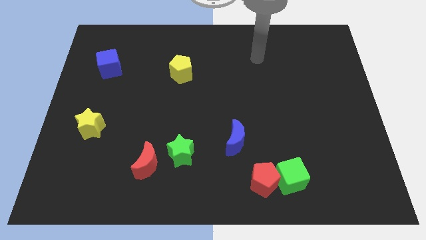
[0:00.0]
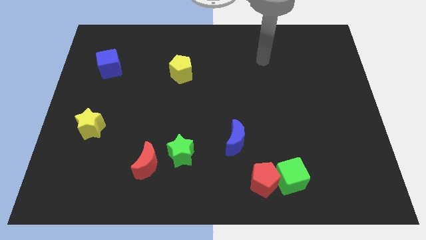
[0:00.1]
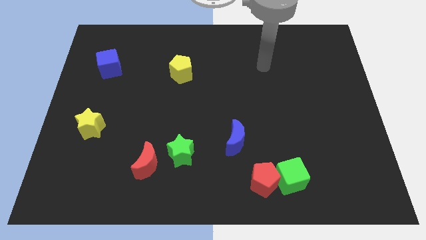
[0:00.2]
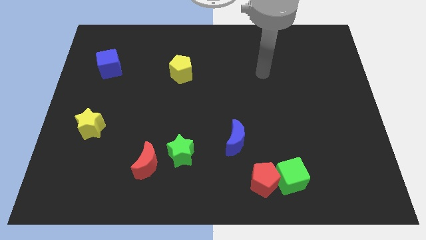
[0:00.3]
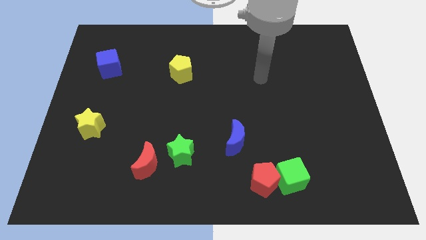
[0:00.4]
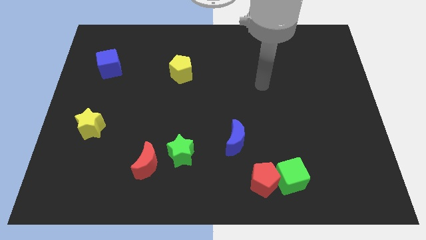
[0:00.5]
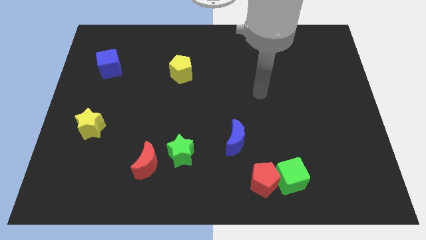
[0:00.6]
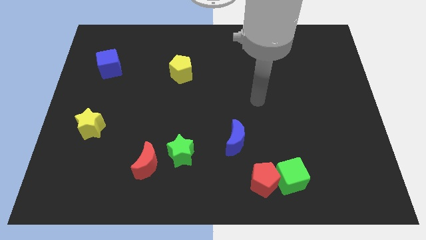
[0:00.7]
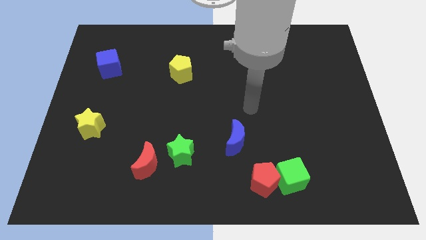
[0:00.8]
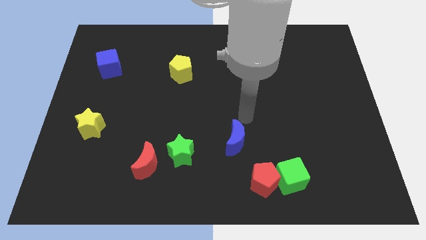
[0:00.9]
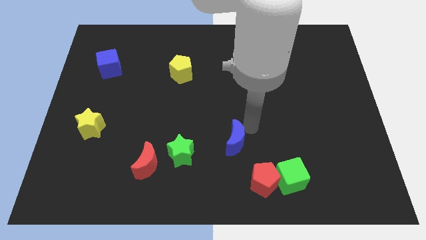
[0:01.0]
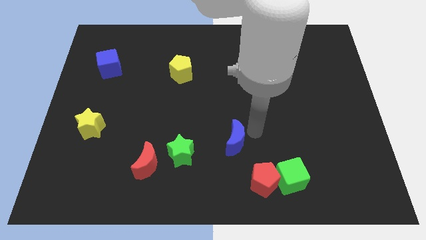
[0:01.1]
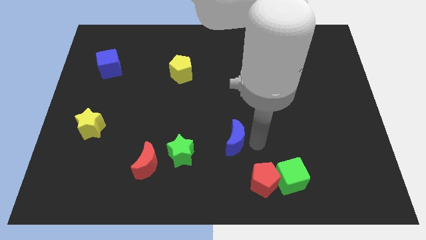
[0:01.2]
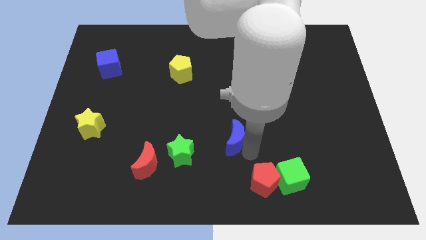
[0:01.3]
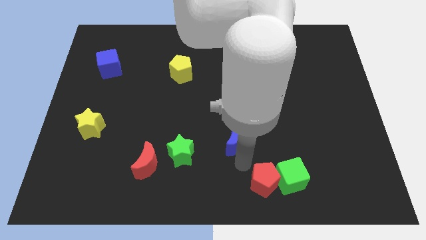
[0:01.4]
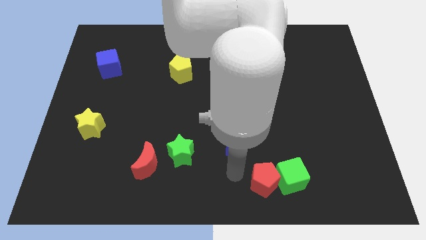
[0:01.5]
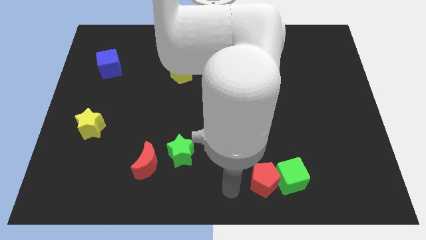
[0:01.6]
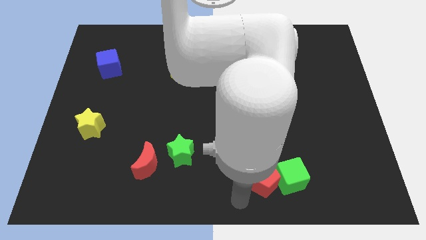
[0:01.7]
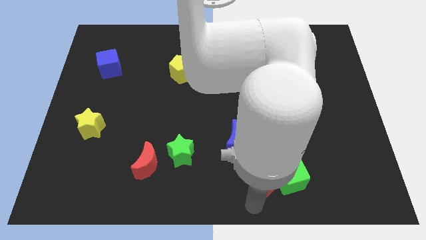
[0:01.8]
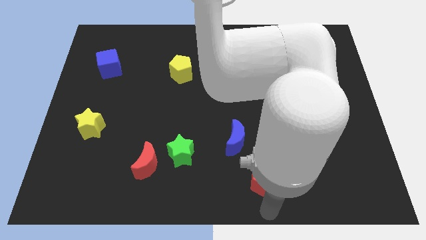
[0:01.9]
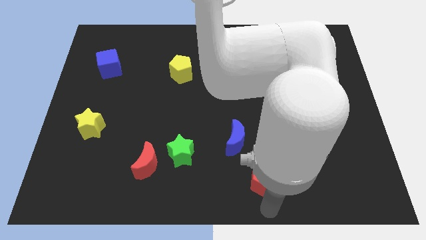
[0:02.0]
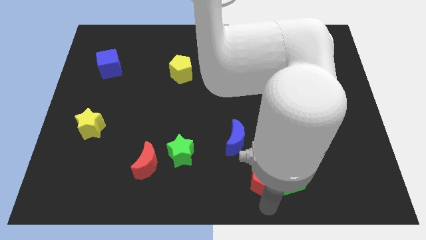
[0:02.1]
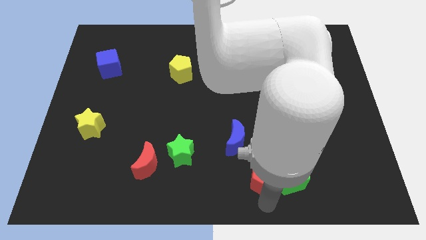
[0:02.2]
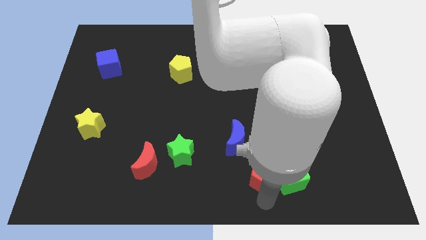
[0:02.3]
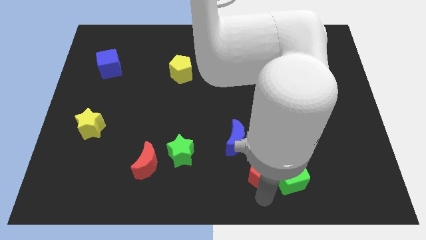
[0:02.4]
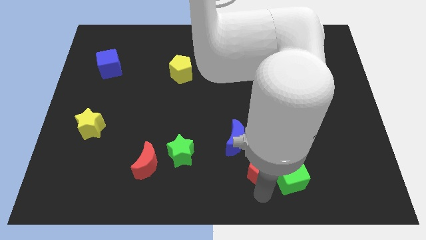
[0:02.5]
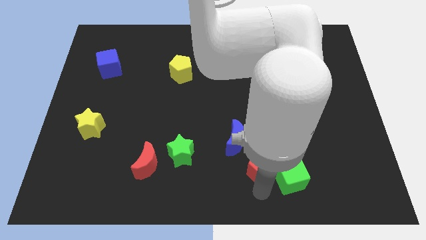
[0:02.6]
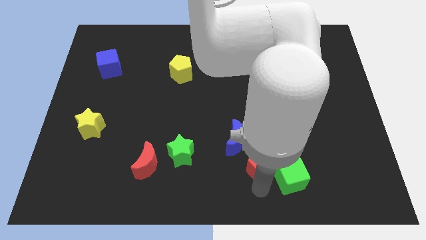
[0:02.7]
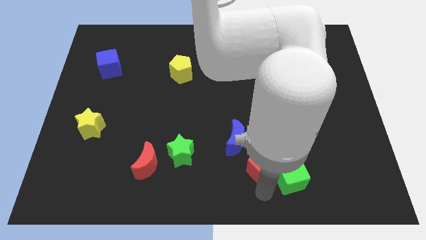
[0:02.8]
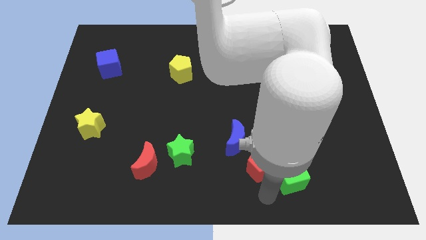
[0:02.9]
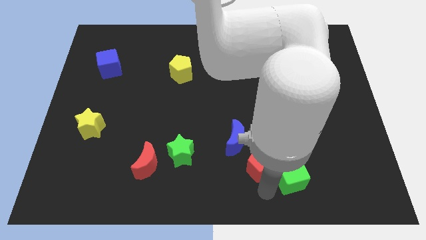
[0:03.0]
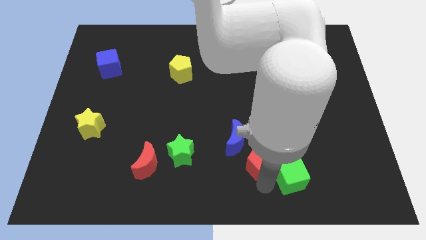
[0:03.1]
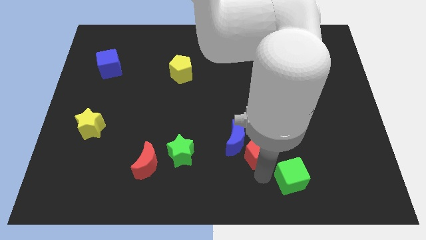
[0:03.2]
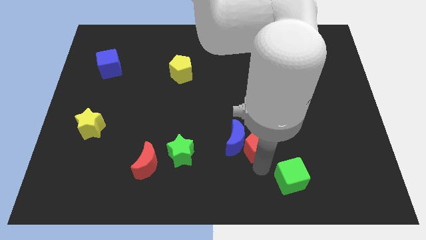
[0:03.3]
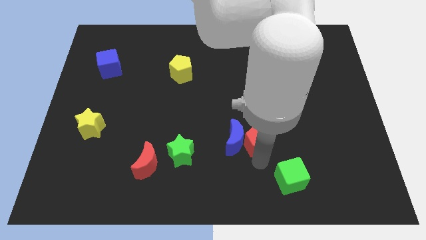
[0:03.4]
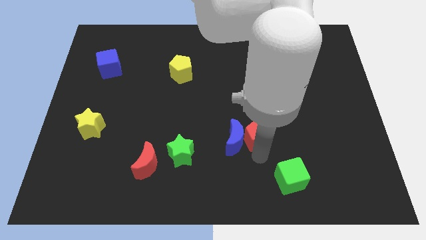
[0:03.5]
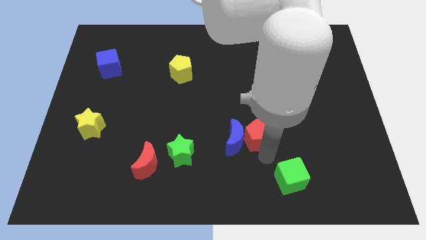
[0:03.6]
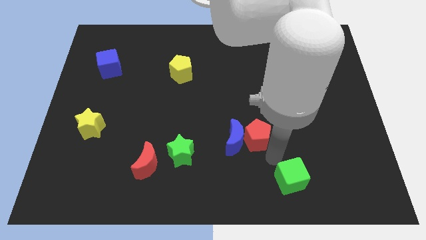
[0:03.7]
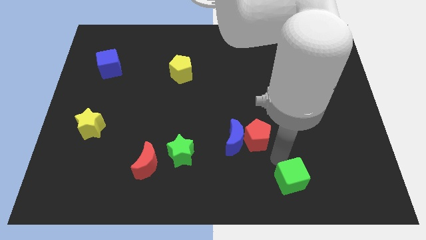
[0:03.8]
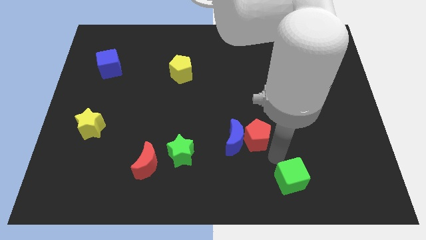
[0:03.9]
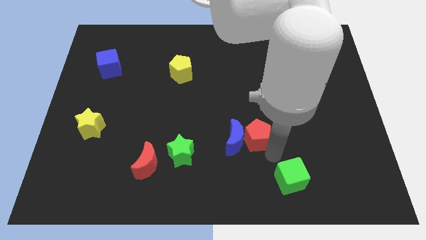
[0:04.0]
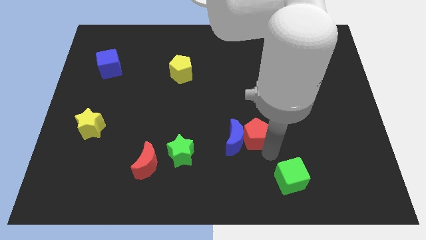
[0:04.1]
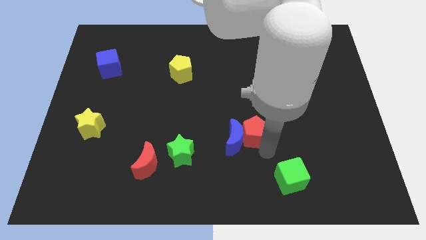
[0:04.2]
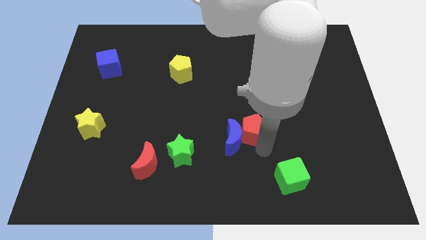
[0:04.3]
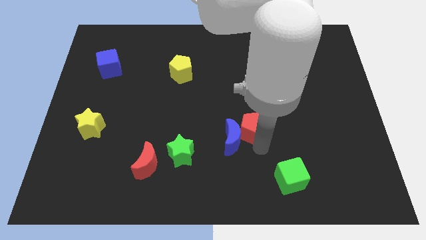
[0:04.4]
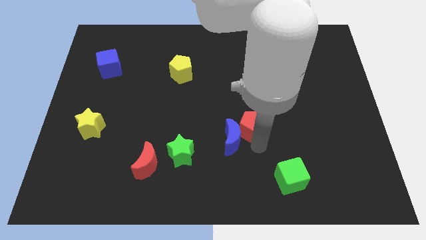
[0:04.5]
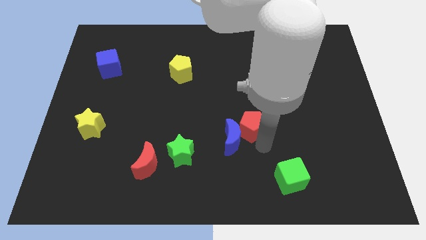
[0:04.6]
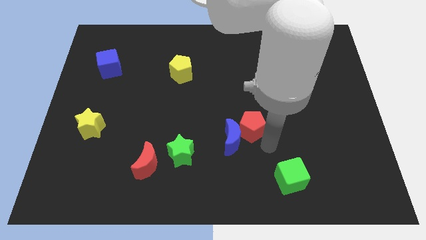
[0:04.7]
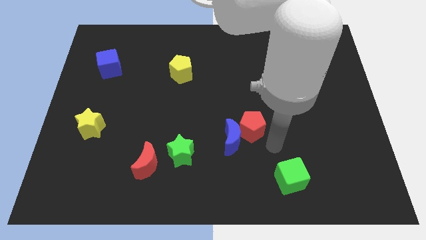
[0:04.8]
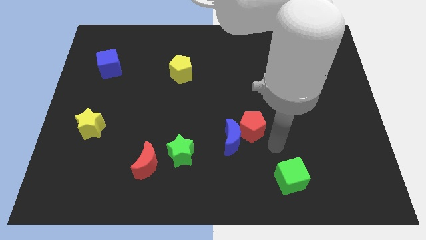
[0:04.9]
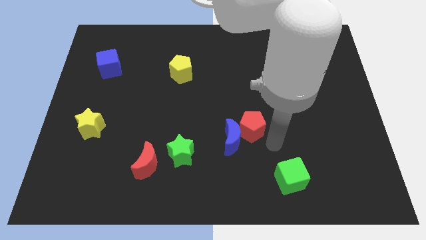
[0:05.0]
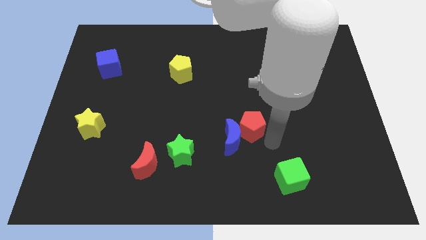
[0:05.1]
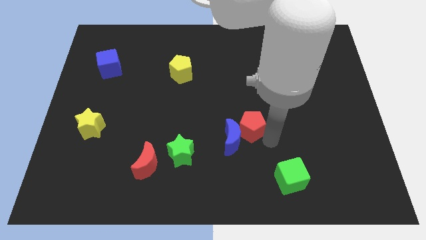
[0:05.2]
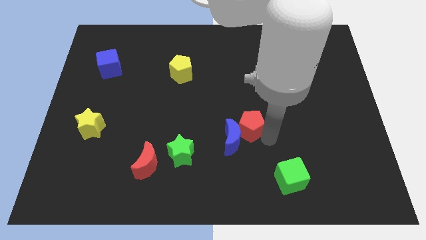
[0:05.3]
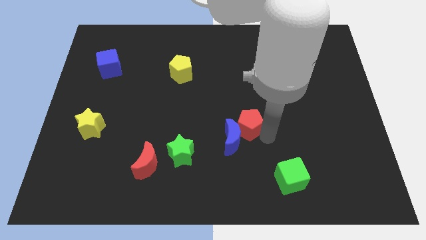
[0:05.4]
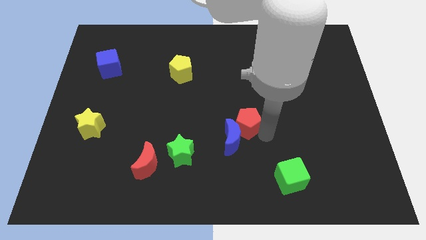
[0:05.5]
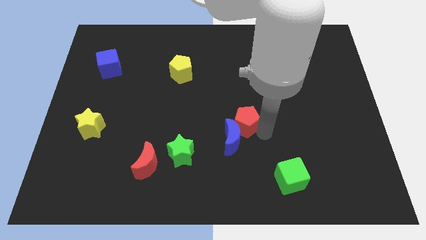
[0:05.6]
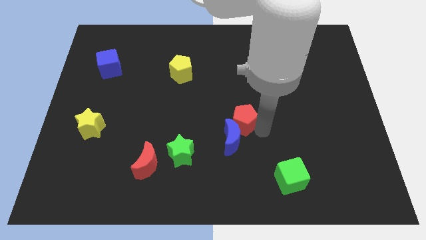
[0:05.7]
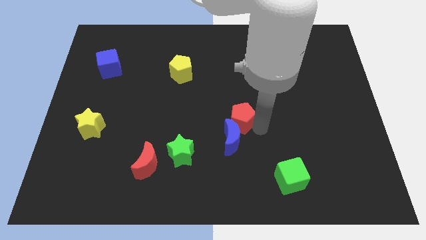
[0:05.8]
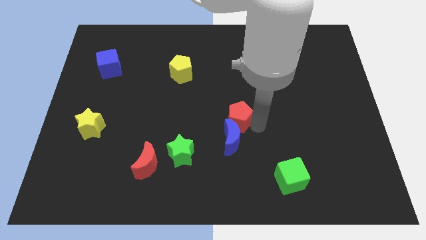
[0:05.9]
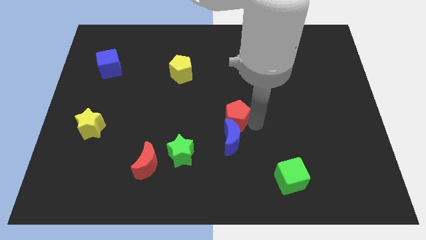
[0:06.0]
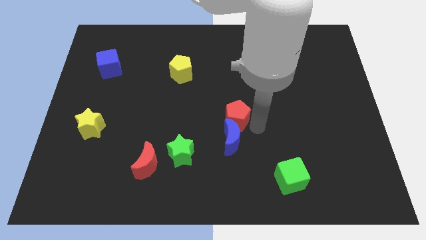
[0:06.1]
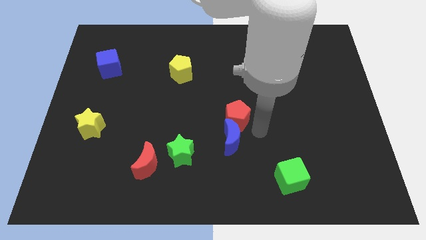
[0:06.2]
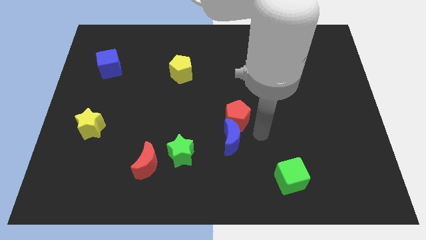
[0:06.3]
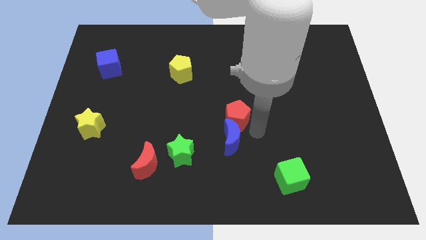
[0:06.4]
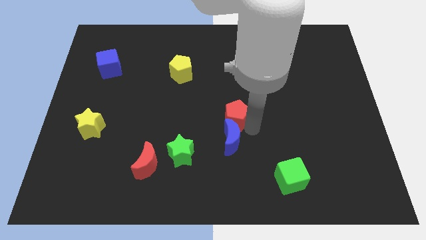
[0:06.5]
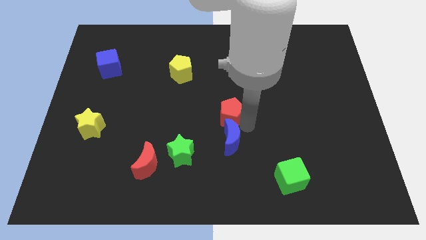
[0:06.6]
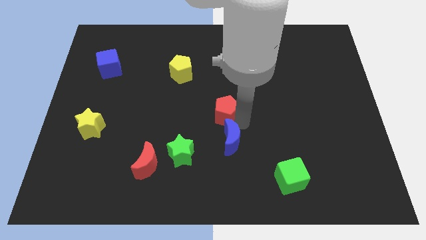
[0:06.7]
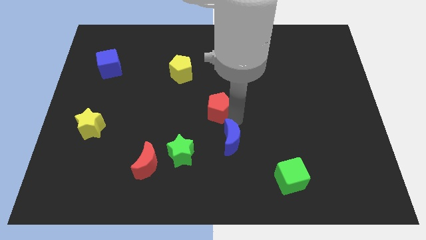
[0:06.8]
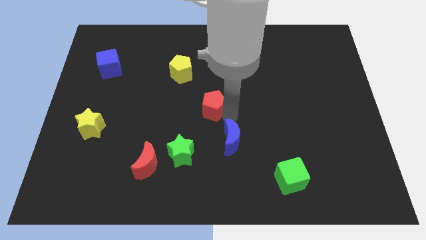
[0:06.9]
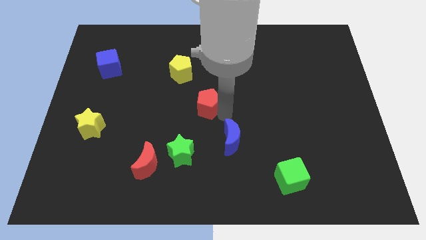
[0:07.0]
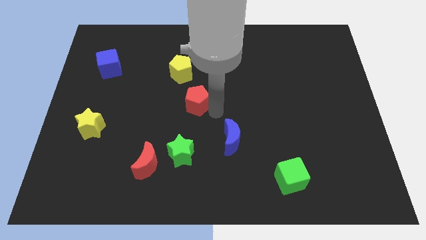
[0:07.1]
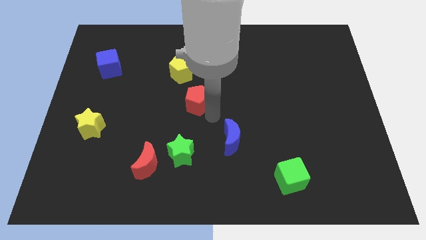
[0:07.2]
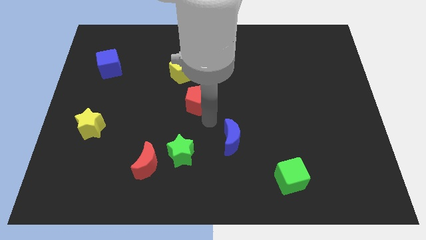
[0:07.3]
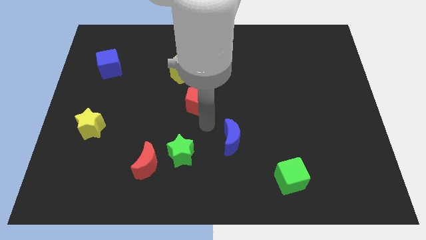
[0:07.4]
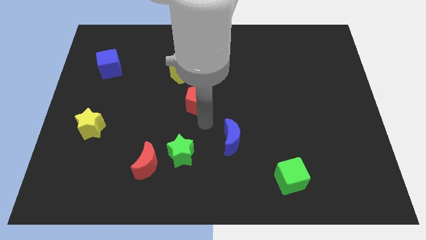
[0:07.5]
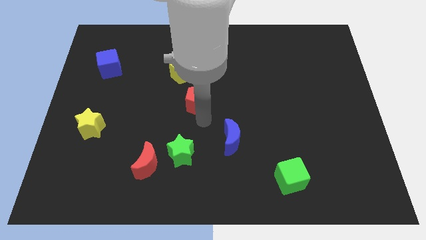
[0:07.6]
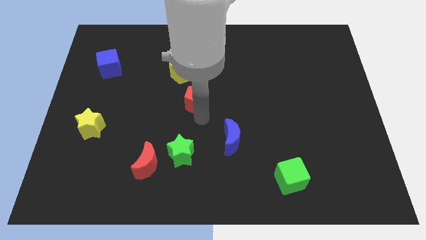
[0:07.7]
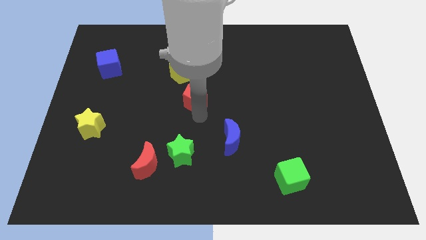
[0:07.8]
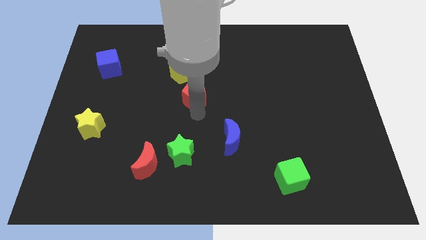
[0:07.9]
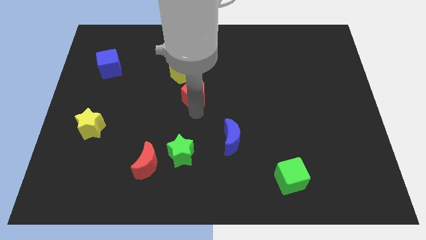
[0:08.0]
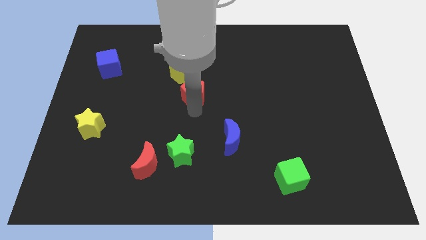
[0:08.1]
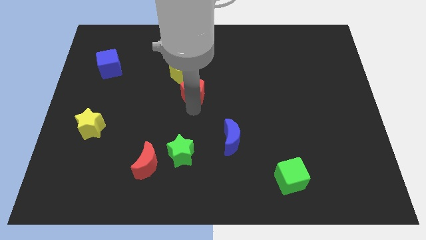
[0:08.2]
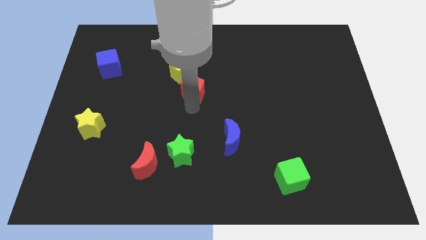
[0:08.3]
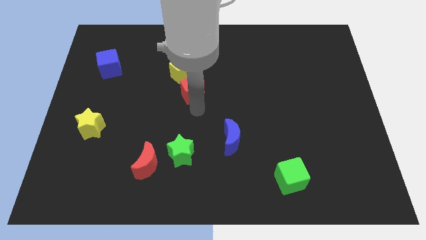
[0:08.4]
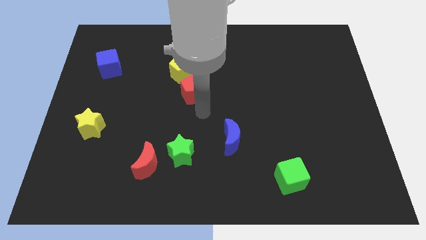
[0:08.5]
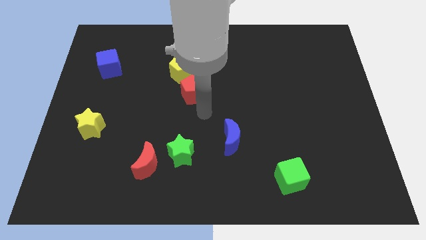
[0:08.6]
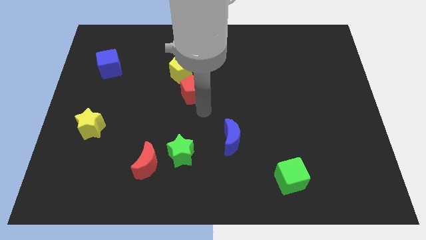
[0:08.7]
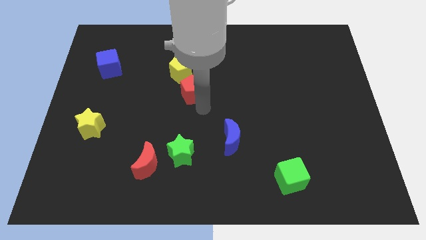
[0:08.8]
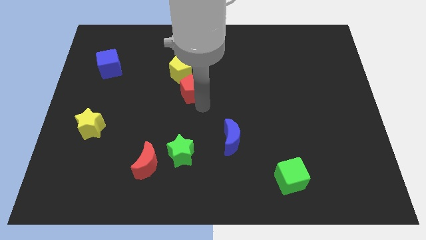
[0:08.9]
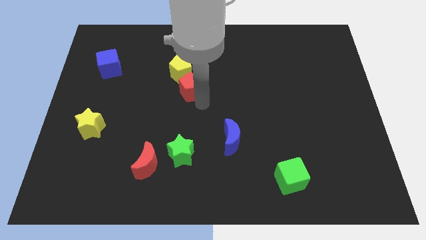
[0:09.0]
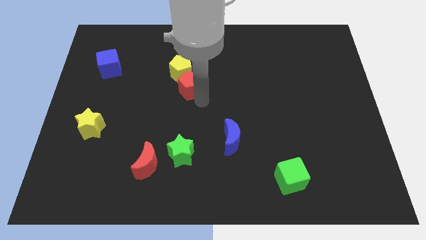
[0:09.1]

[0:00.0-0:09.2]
push the red pentagon close to the yellow pentagon
